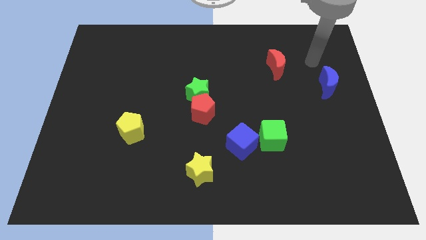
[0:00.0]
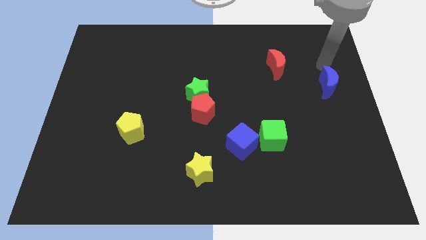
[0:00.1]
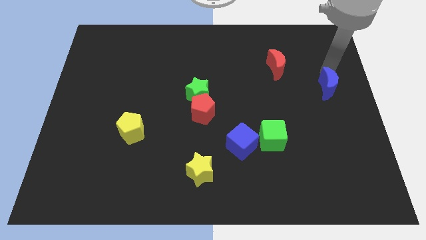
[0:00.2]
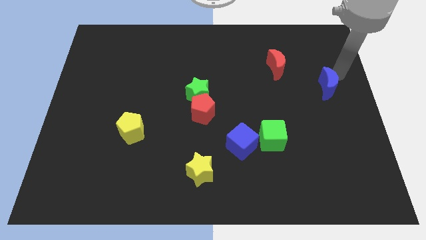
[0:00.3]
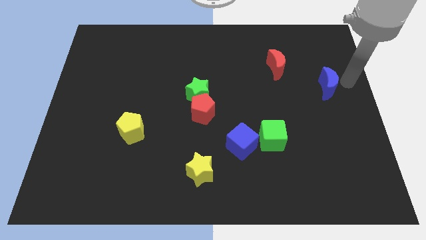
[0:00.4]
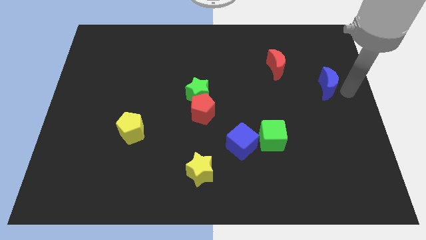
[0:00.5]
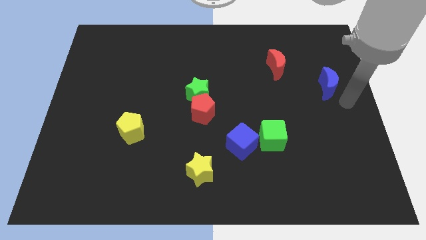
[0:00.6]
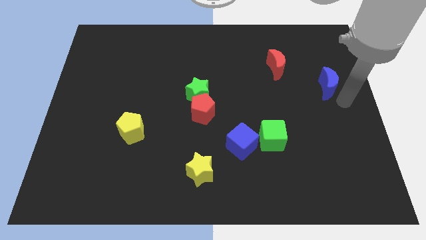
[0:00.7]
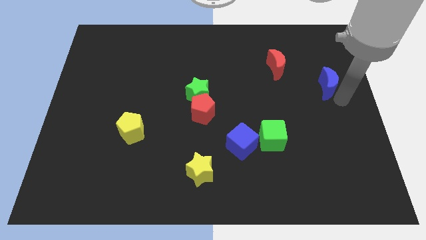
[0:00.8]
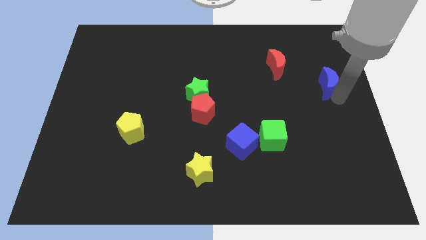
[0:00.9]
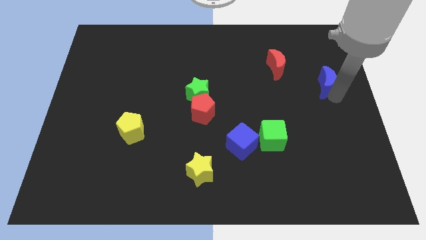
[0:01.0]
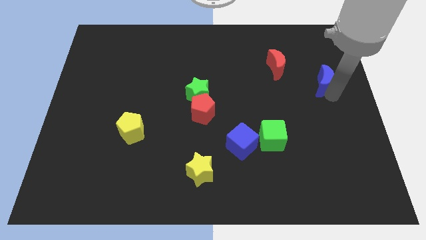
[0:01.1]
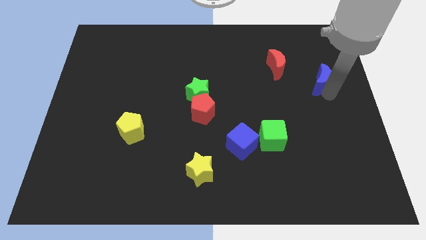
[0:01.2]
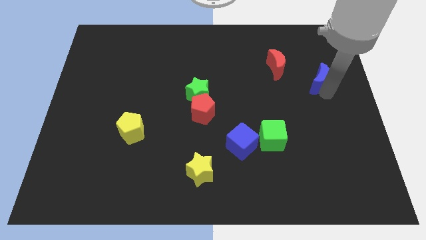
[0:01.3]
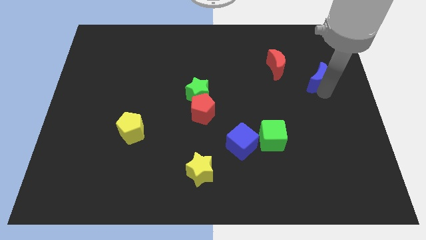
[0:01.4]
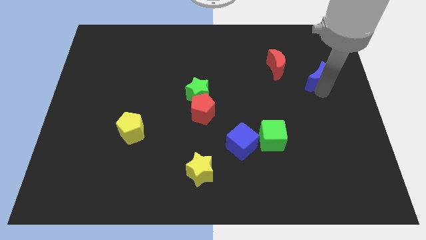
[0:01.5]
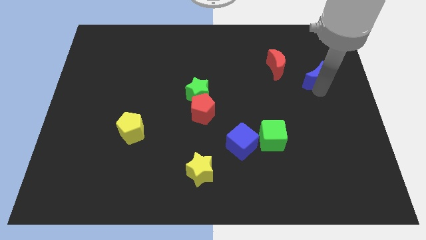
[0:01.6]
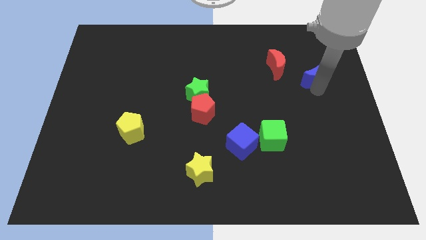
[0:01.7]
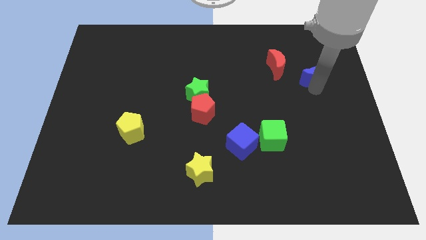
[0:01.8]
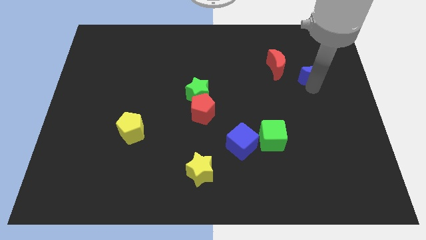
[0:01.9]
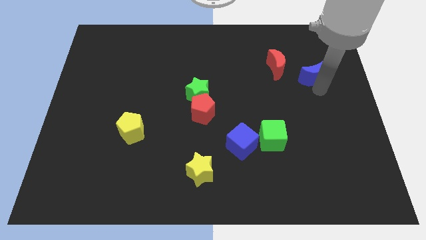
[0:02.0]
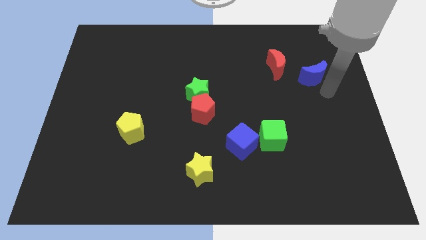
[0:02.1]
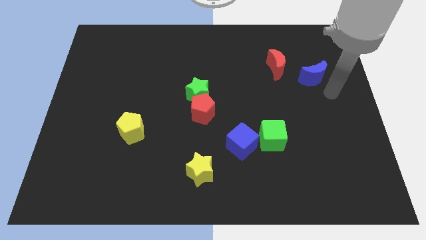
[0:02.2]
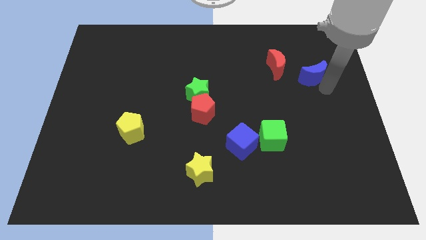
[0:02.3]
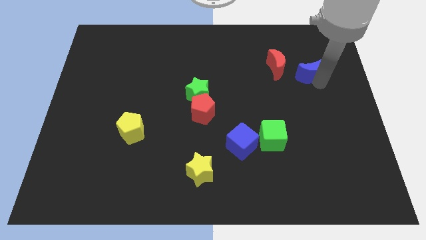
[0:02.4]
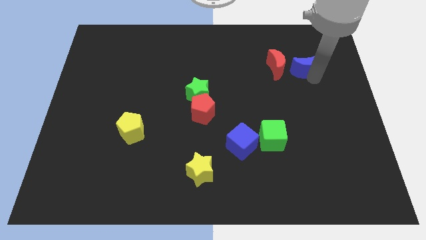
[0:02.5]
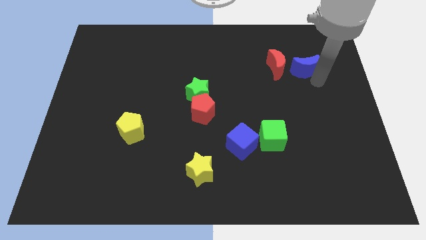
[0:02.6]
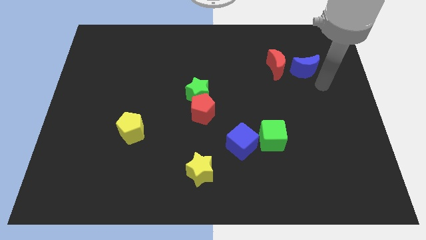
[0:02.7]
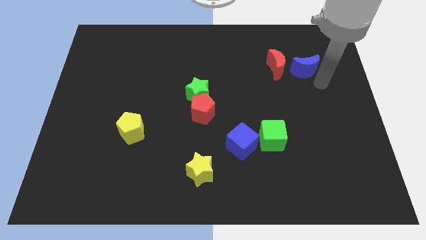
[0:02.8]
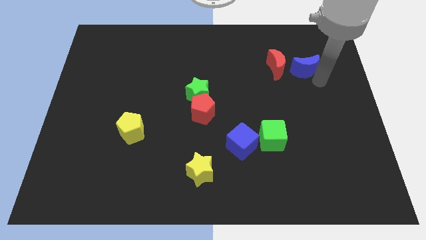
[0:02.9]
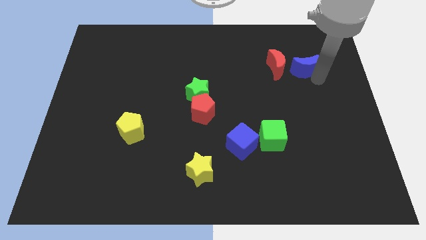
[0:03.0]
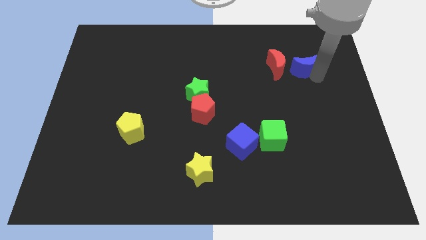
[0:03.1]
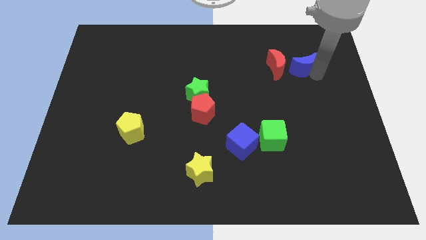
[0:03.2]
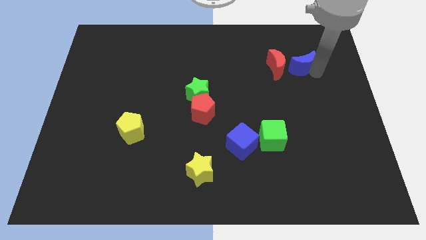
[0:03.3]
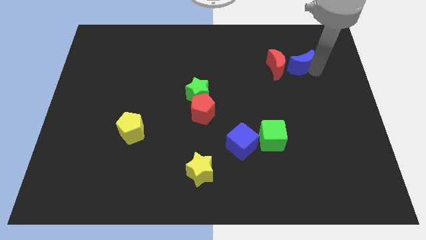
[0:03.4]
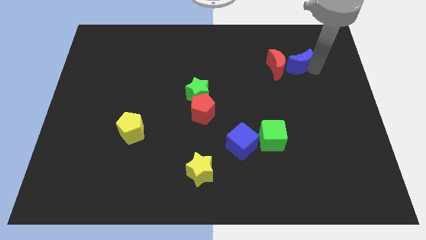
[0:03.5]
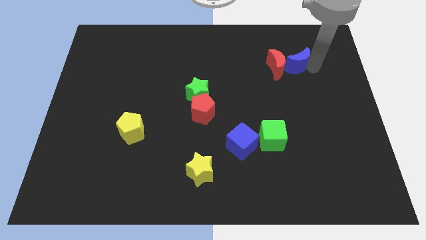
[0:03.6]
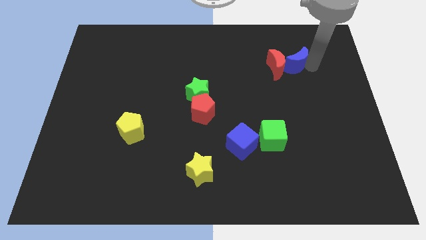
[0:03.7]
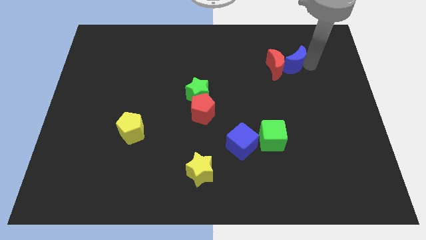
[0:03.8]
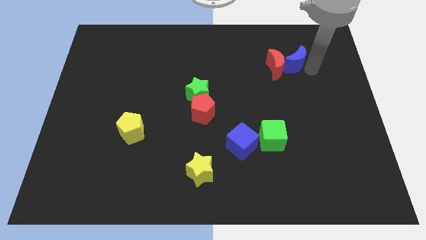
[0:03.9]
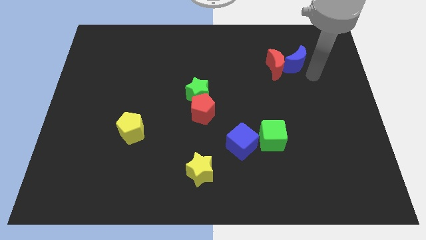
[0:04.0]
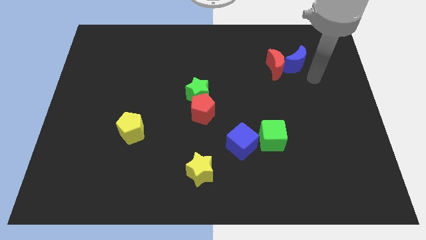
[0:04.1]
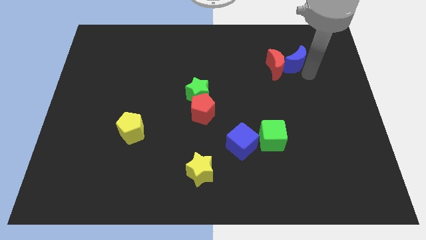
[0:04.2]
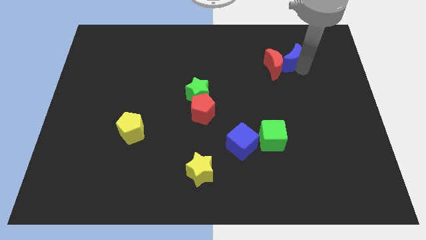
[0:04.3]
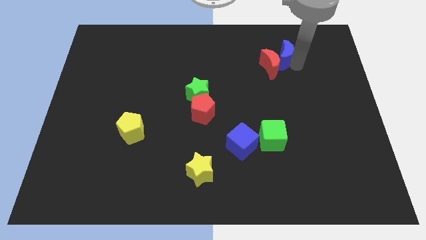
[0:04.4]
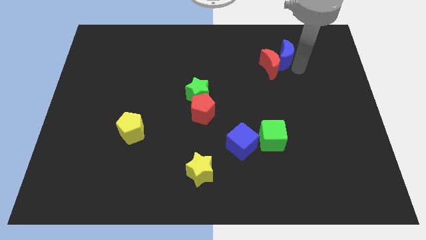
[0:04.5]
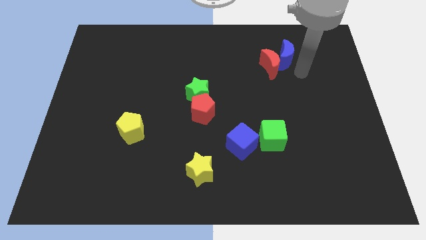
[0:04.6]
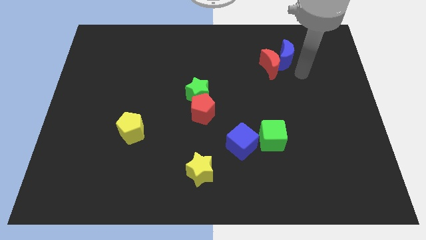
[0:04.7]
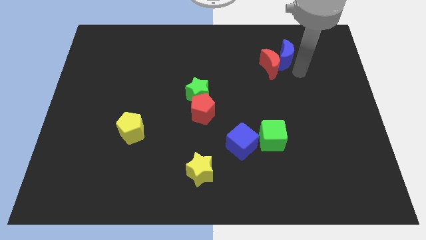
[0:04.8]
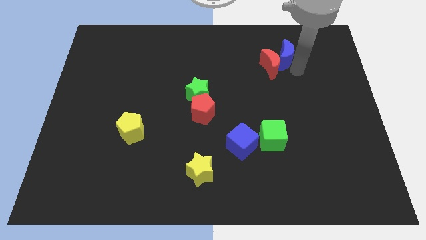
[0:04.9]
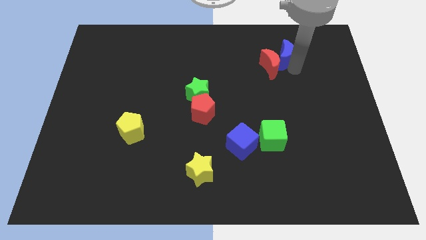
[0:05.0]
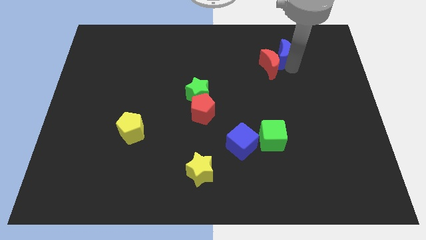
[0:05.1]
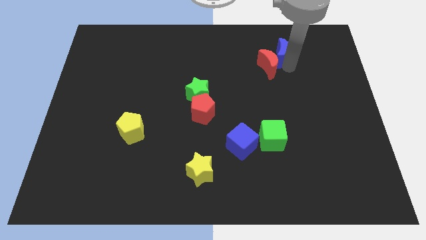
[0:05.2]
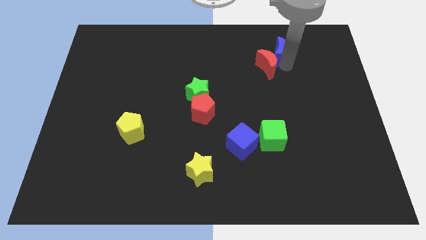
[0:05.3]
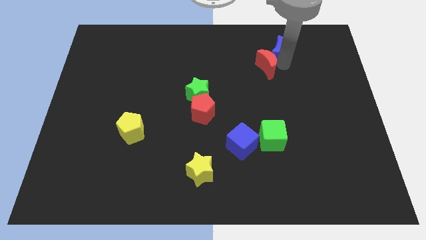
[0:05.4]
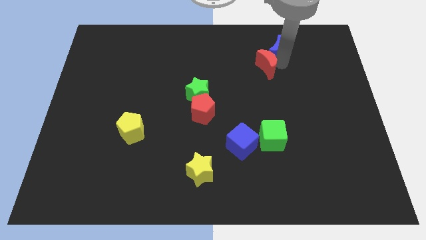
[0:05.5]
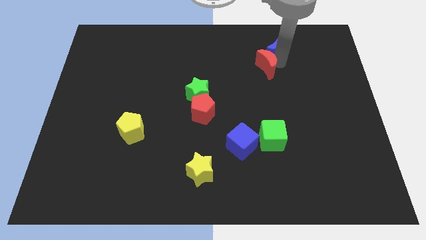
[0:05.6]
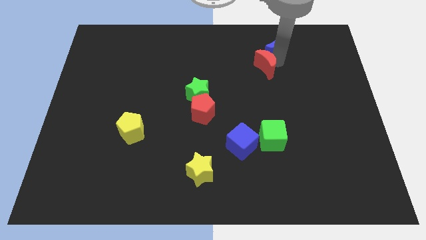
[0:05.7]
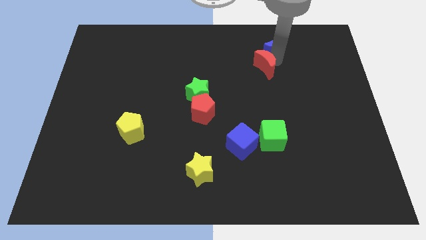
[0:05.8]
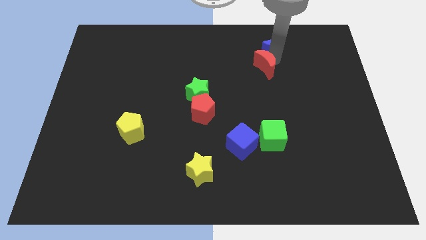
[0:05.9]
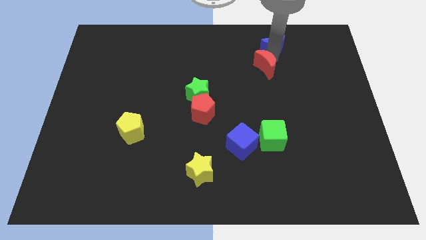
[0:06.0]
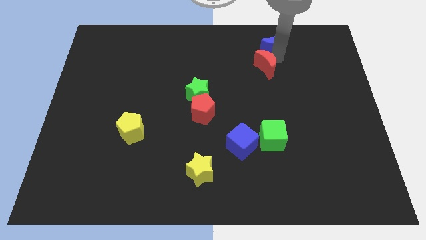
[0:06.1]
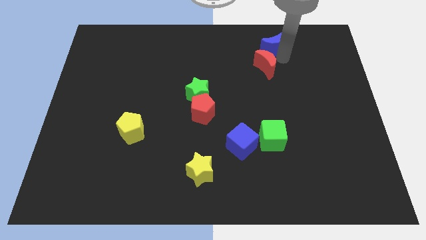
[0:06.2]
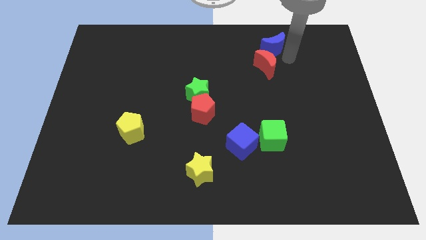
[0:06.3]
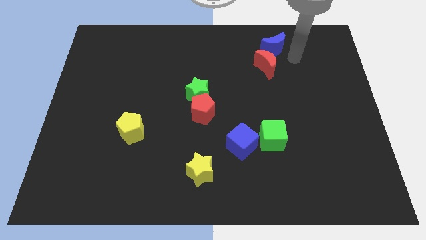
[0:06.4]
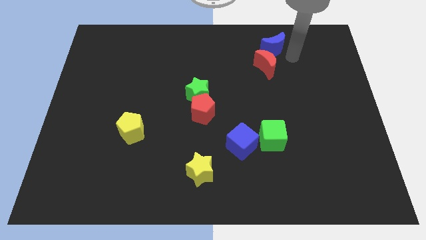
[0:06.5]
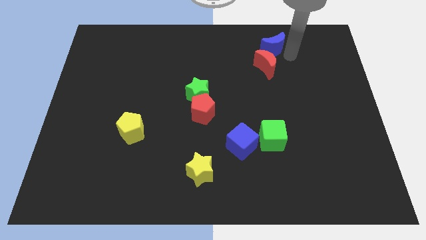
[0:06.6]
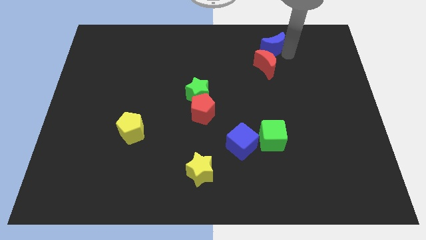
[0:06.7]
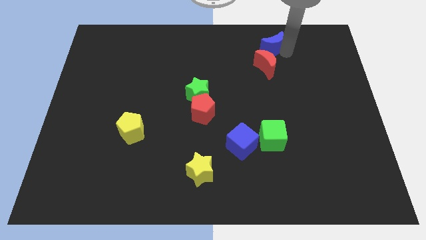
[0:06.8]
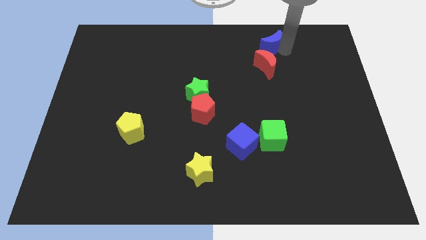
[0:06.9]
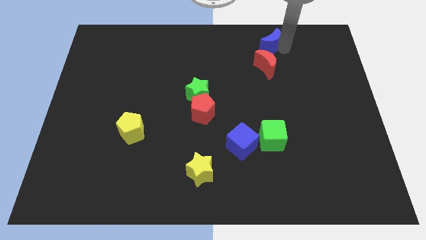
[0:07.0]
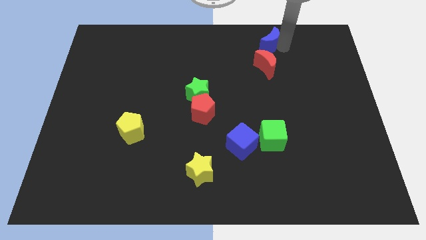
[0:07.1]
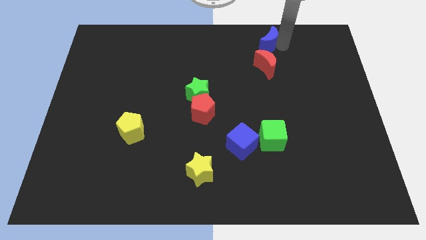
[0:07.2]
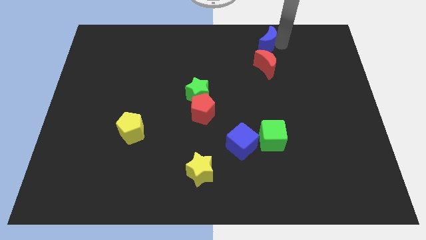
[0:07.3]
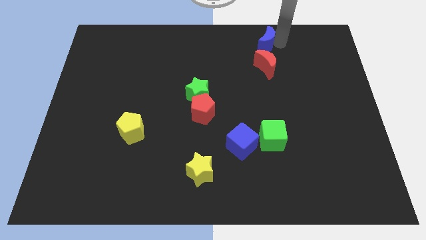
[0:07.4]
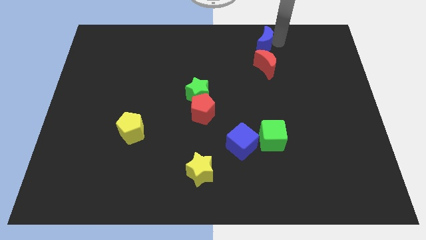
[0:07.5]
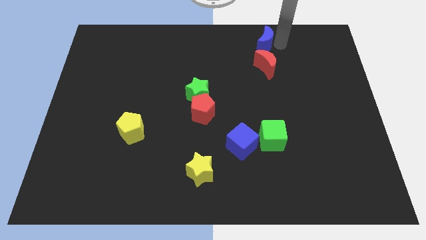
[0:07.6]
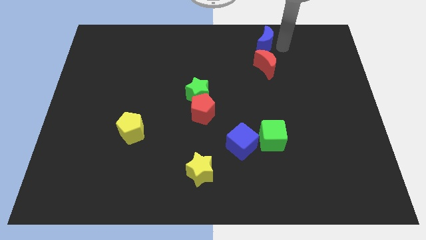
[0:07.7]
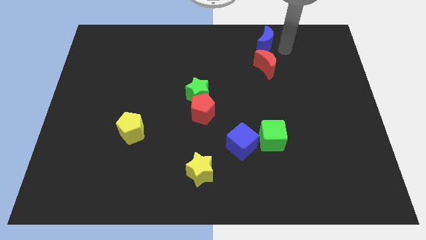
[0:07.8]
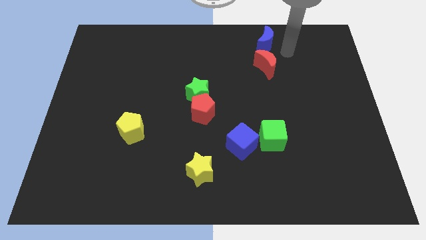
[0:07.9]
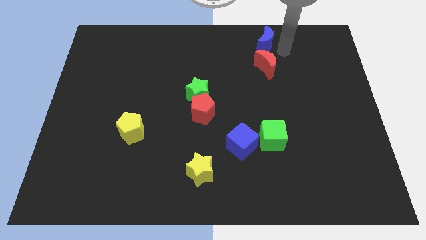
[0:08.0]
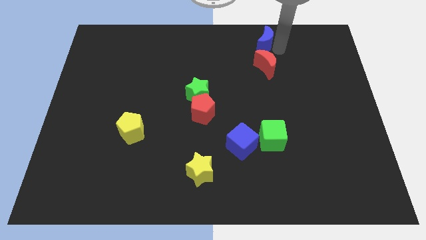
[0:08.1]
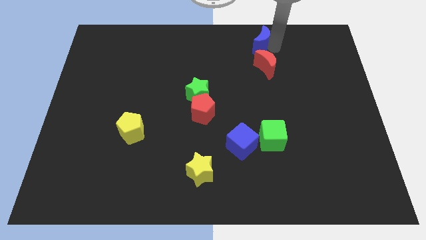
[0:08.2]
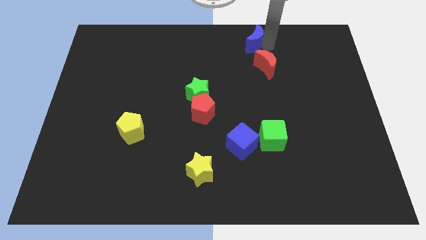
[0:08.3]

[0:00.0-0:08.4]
move the blue moon to the top side
